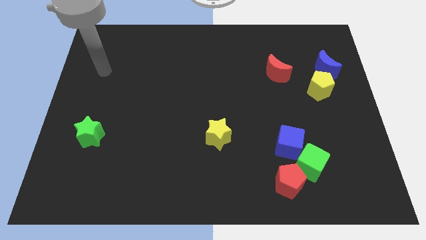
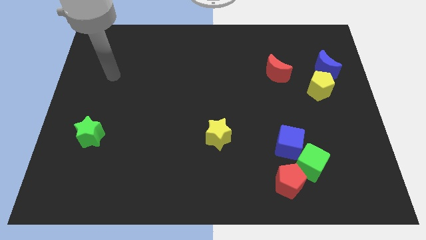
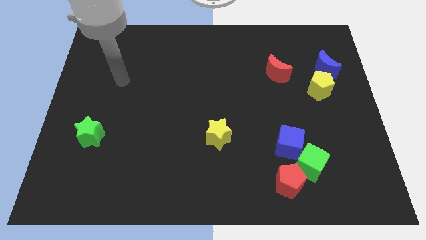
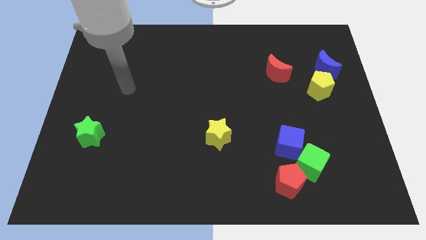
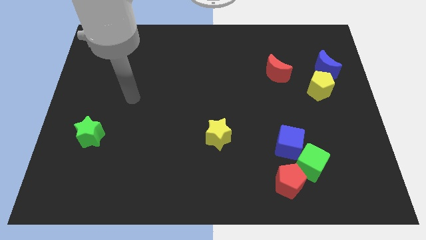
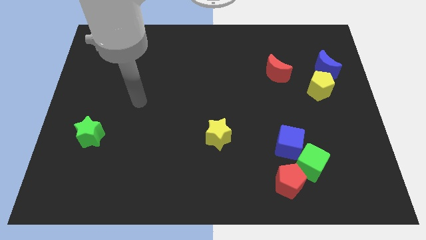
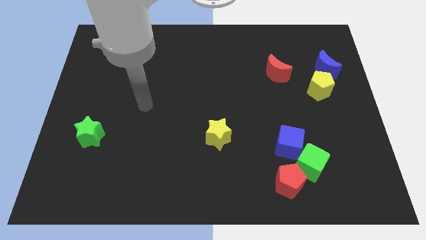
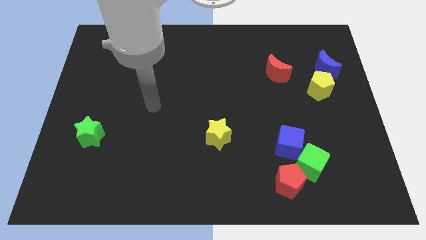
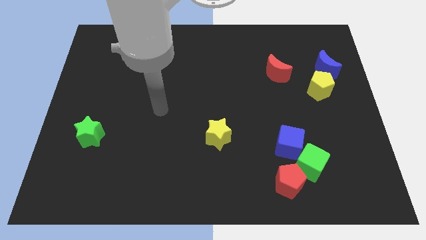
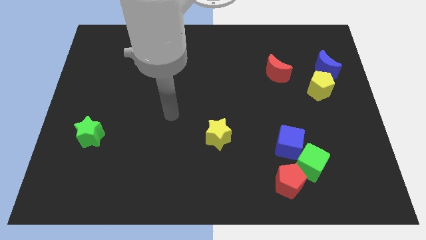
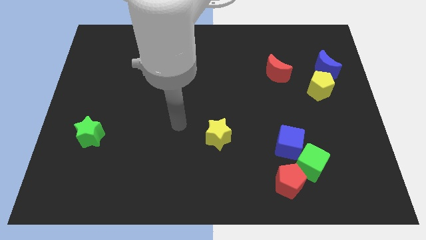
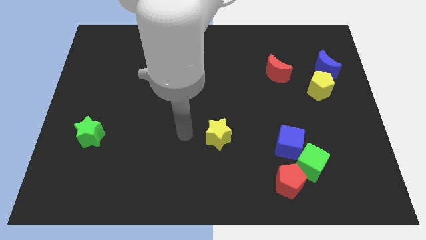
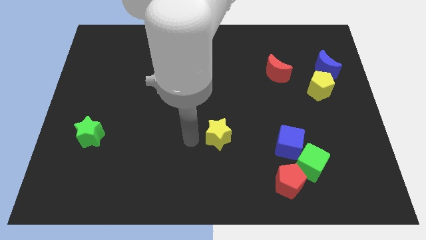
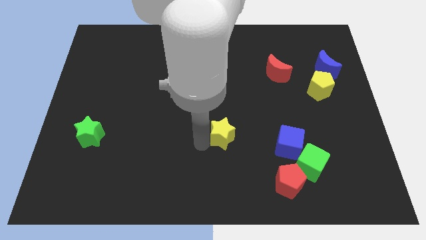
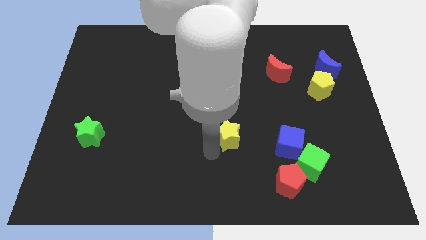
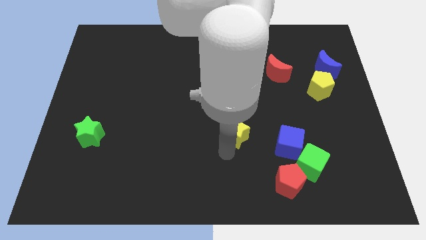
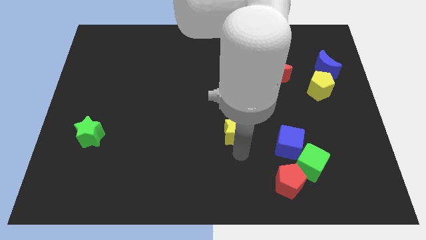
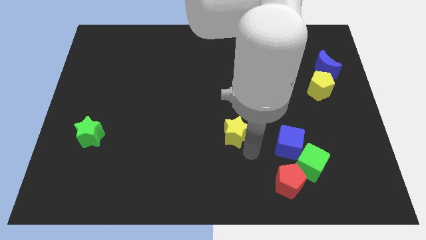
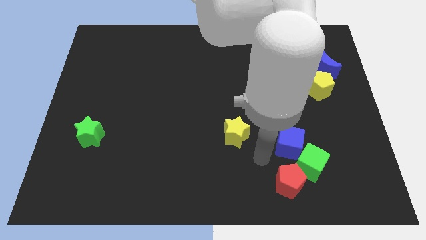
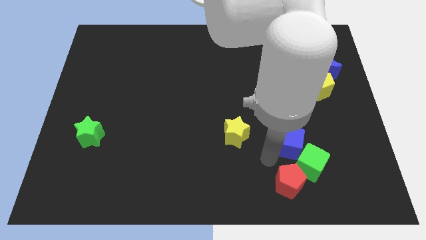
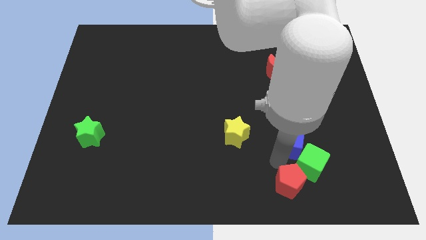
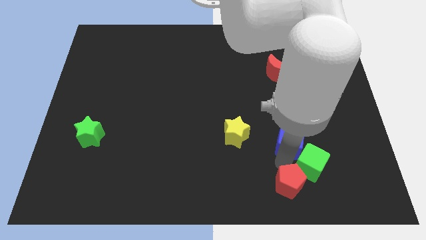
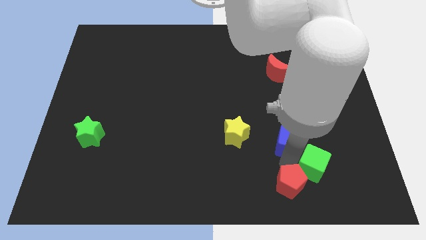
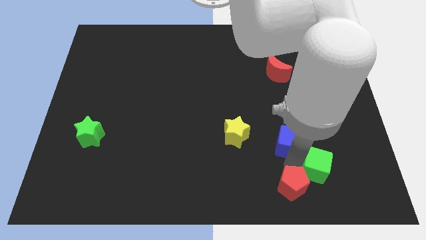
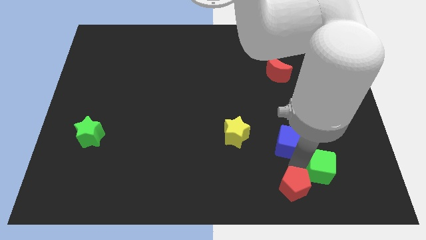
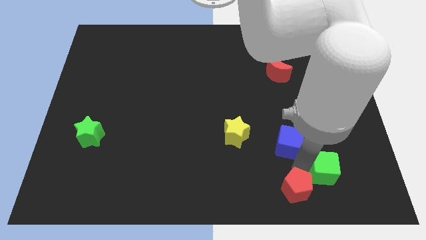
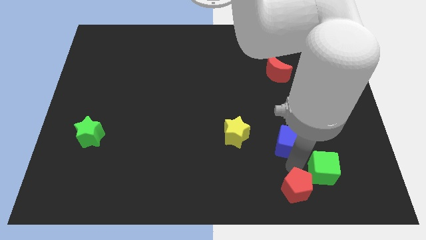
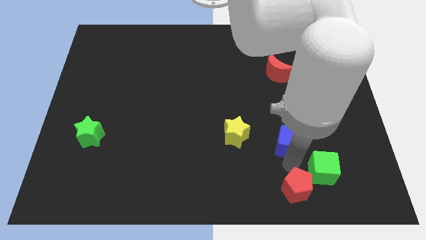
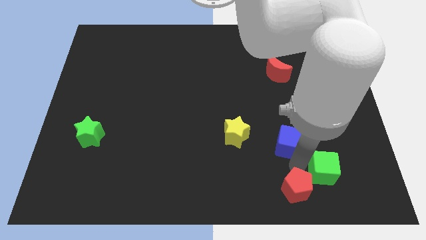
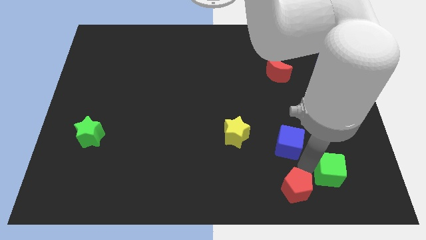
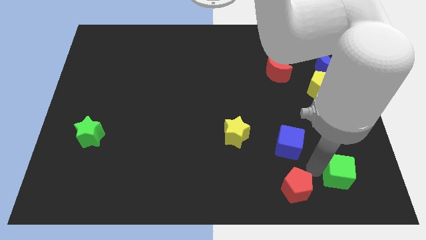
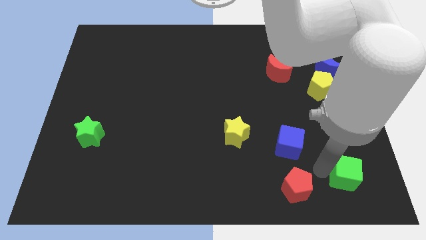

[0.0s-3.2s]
move the green cube away from the blue cube and red pentagon

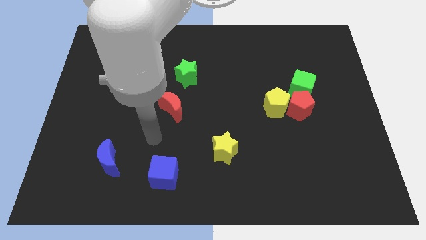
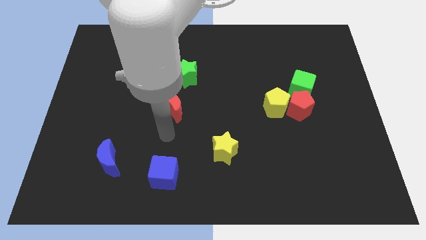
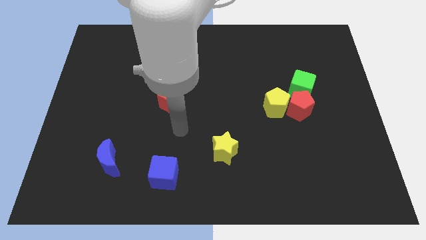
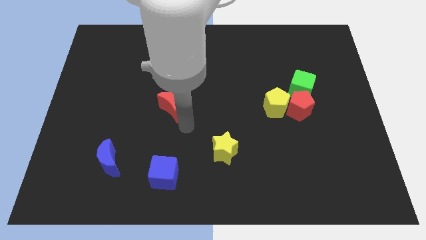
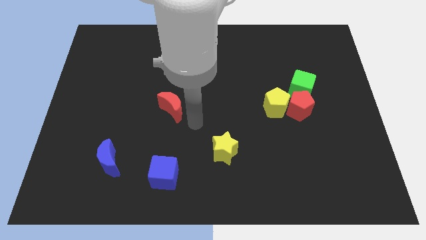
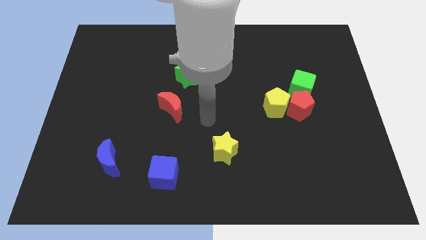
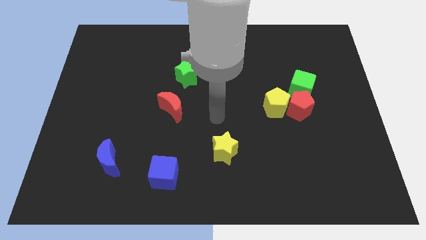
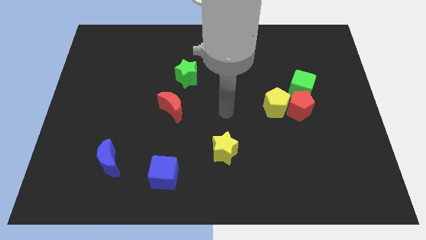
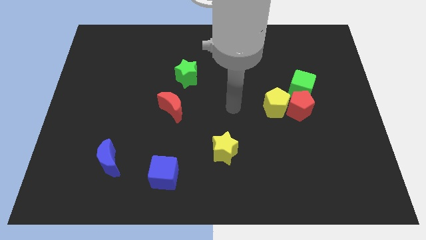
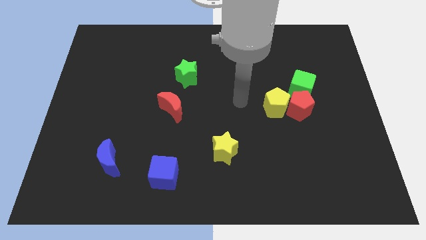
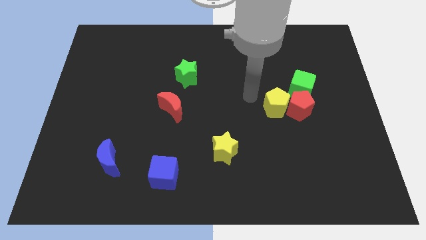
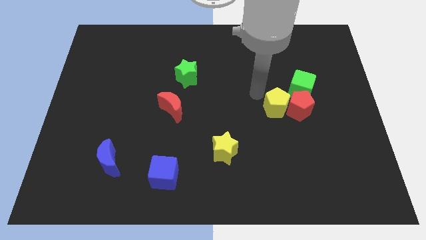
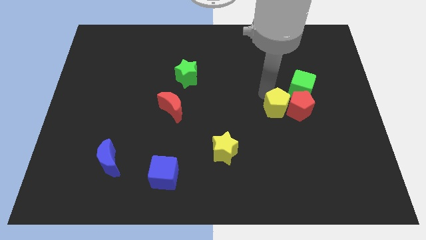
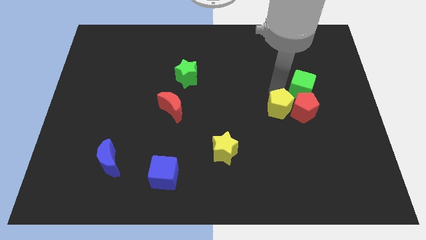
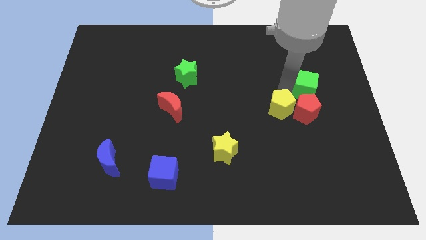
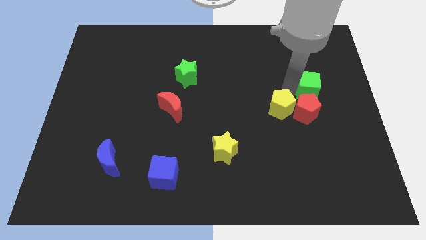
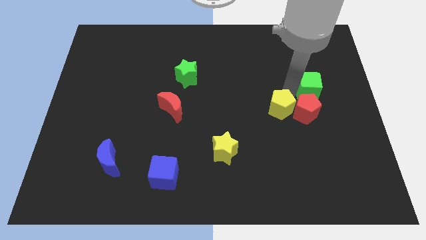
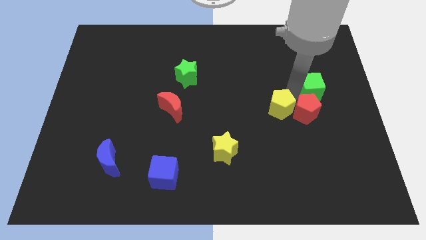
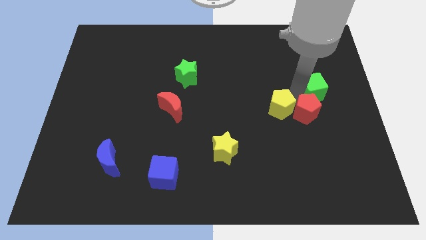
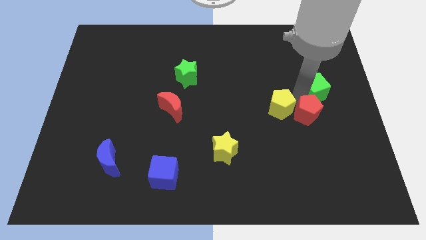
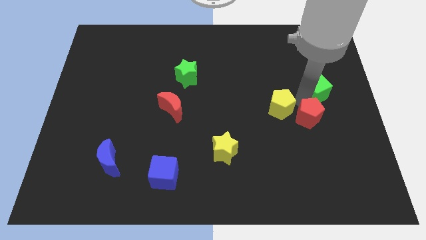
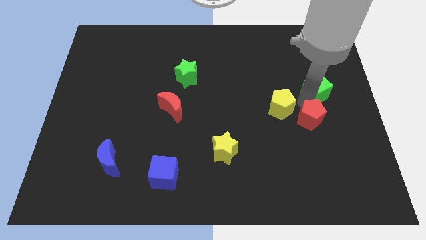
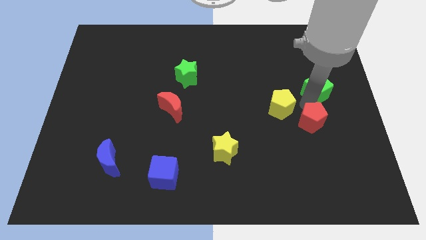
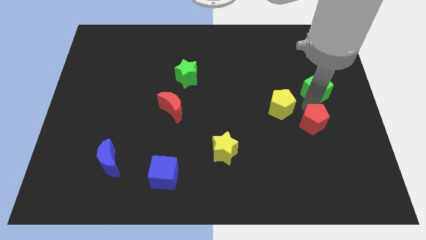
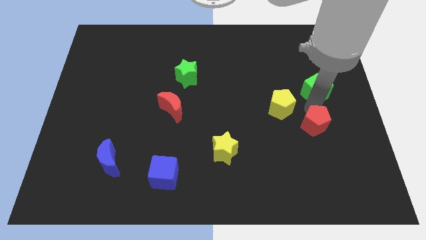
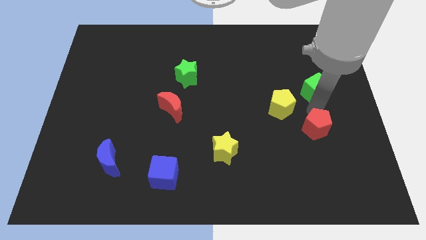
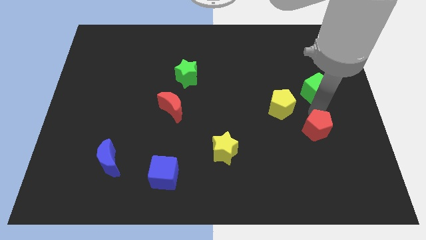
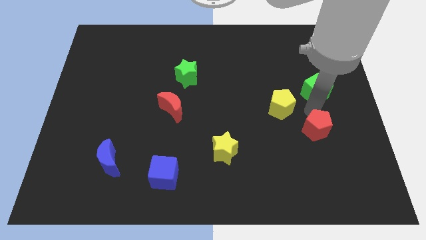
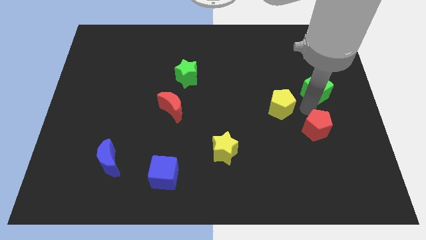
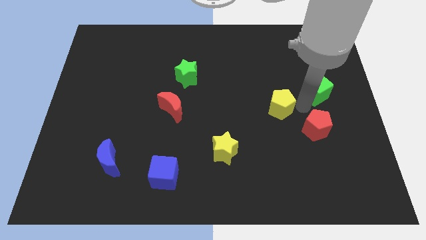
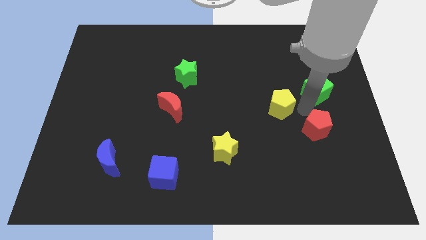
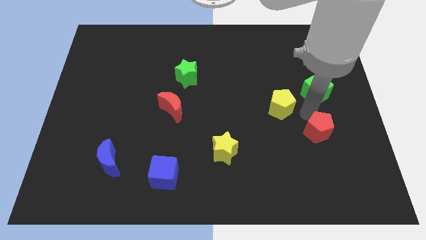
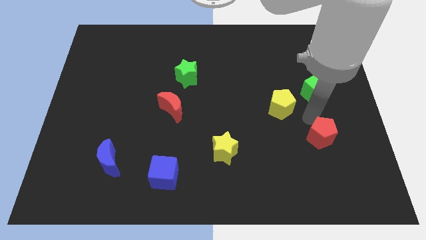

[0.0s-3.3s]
pull the red pentagon apart from the yellow pentagon and green cube

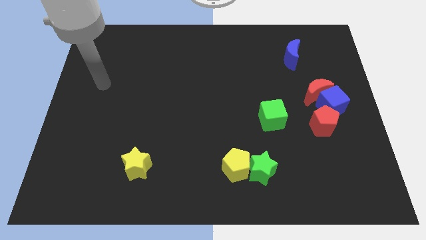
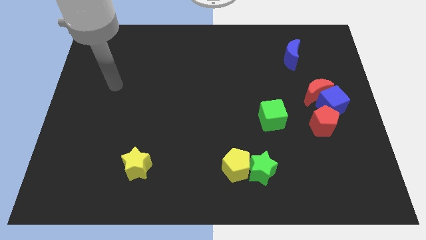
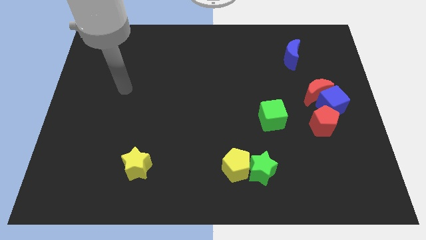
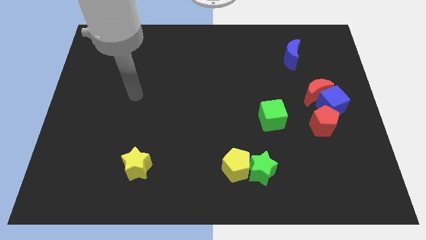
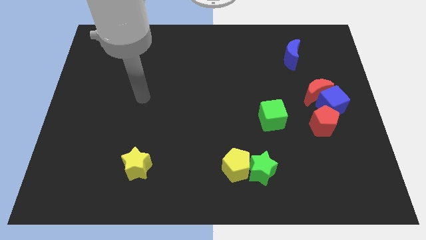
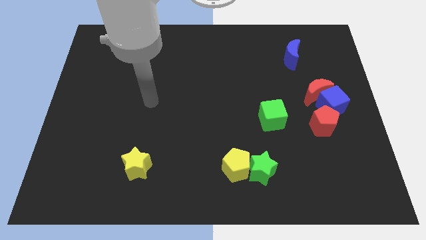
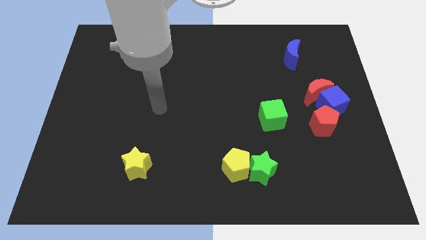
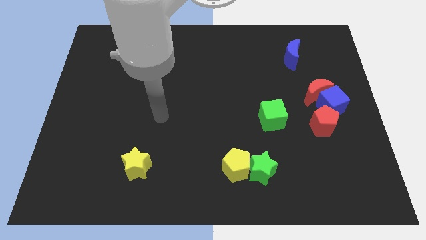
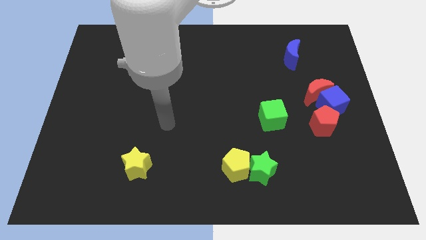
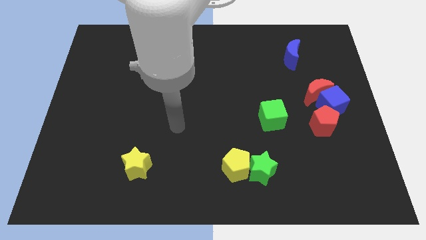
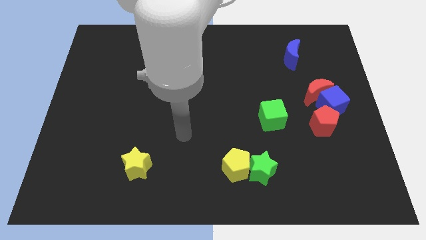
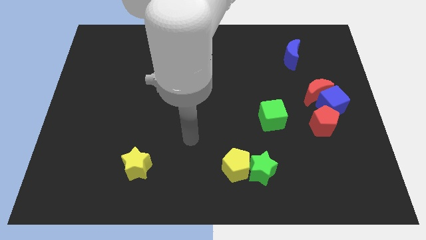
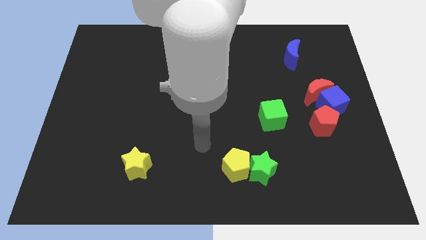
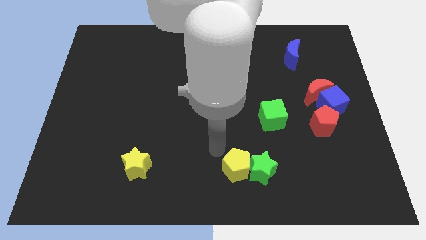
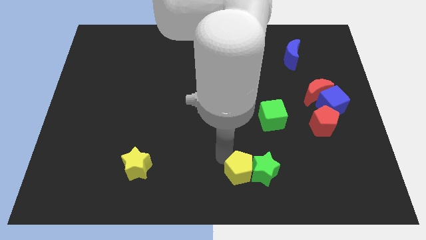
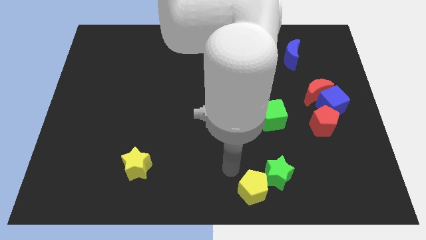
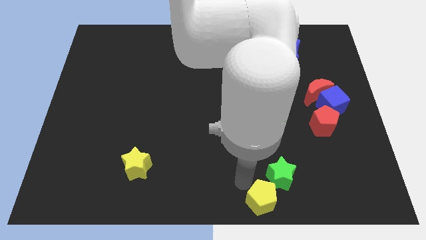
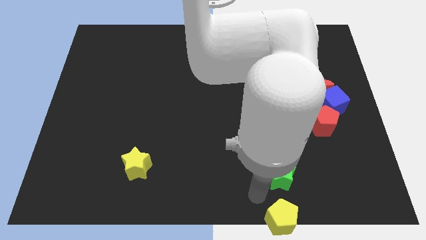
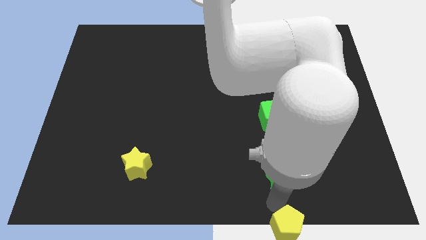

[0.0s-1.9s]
separate the green star from the yellow pentagon

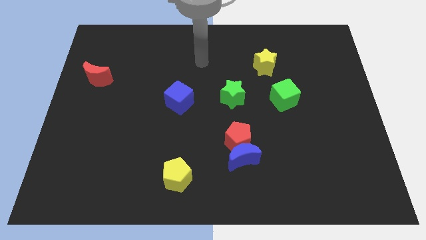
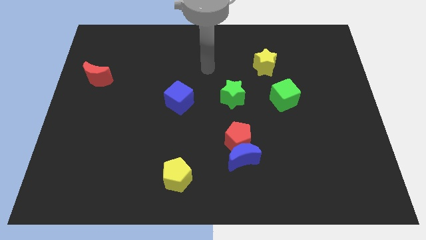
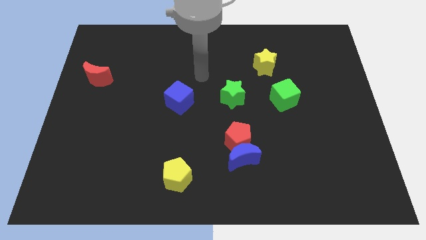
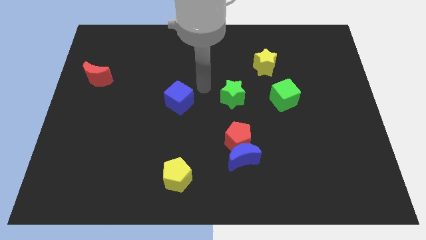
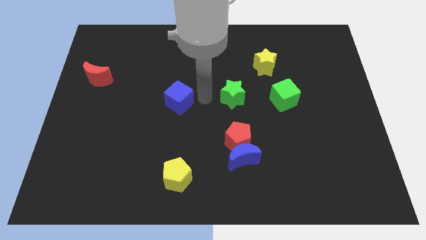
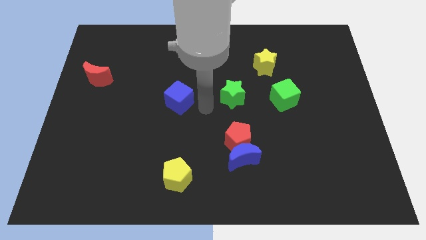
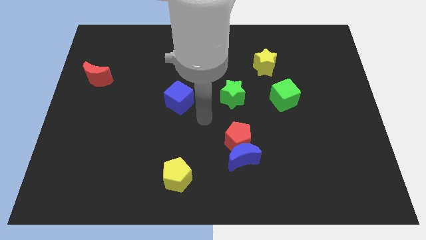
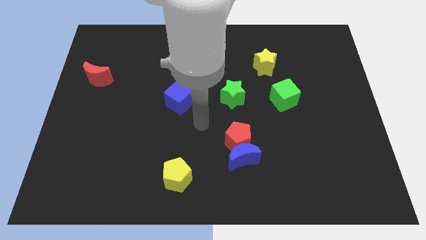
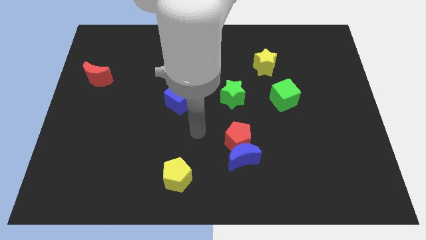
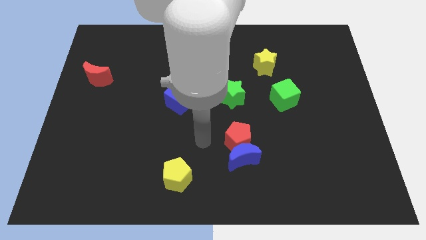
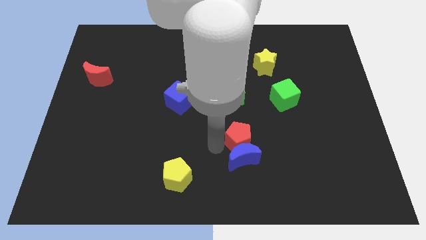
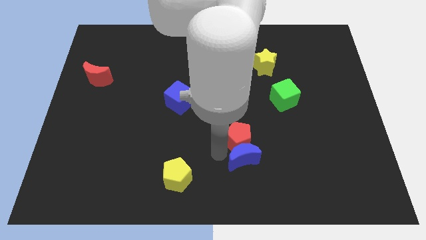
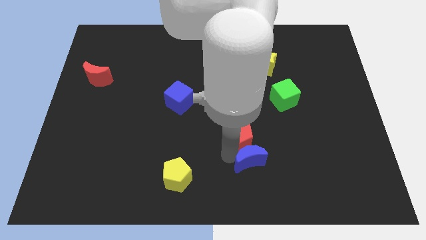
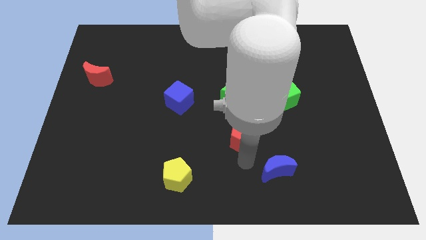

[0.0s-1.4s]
pull the red pentagon apart from the blue moon
